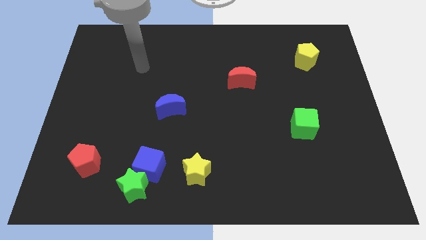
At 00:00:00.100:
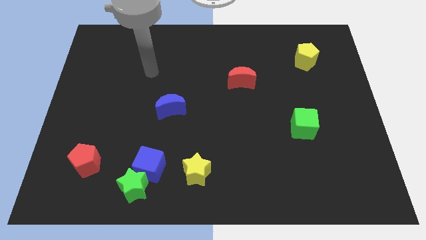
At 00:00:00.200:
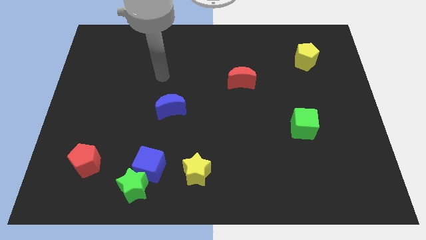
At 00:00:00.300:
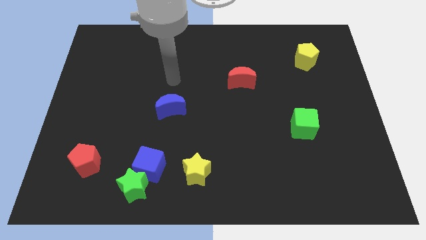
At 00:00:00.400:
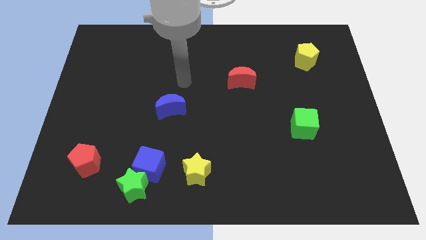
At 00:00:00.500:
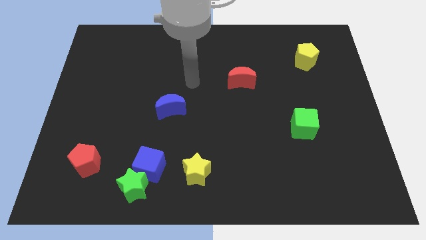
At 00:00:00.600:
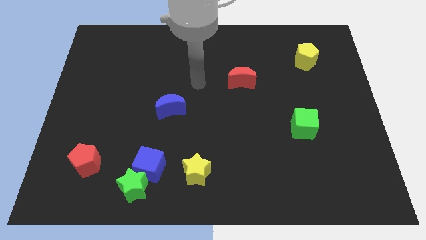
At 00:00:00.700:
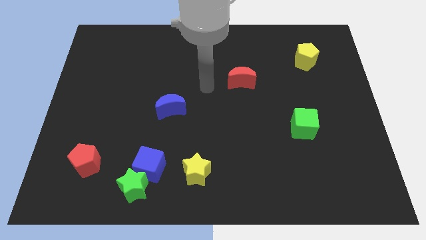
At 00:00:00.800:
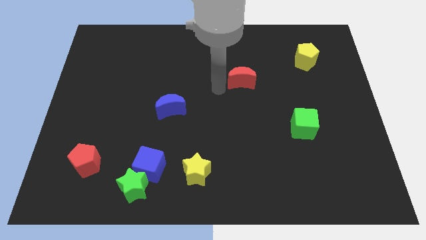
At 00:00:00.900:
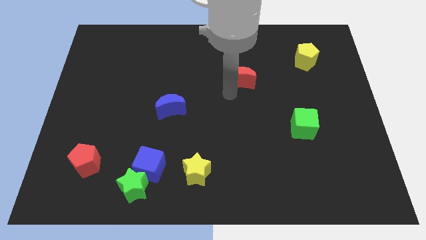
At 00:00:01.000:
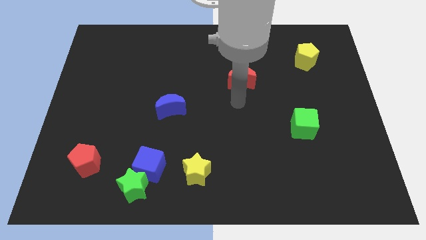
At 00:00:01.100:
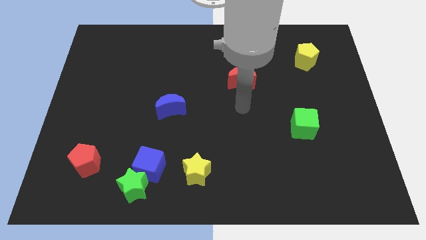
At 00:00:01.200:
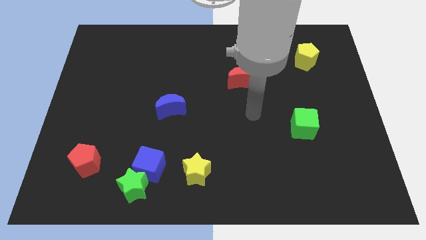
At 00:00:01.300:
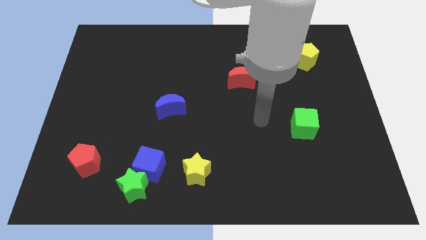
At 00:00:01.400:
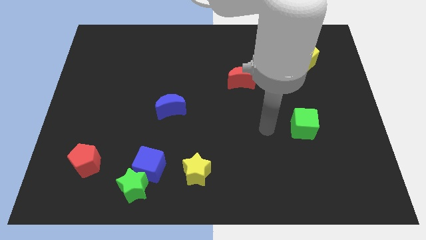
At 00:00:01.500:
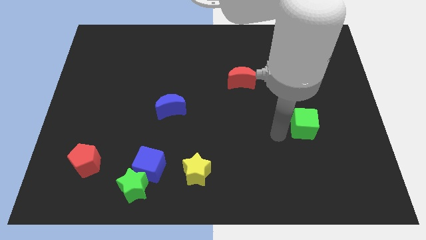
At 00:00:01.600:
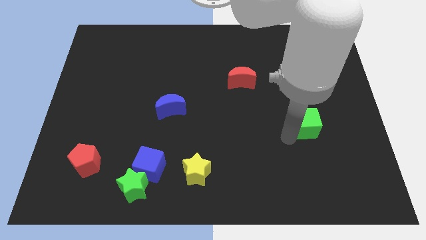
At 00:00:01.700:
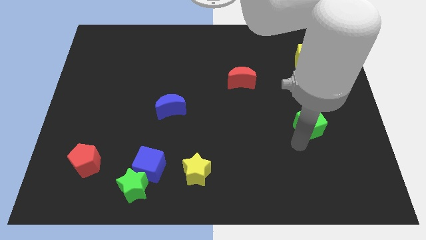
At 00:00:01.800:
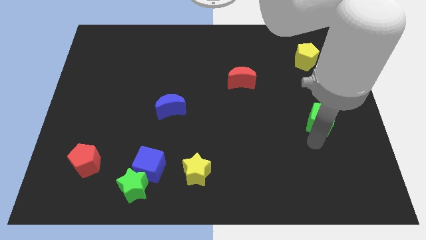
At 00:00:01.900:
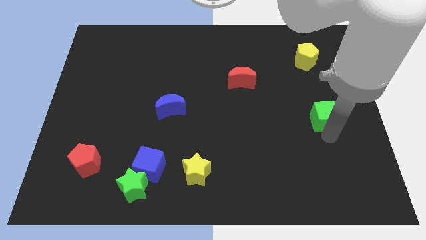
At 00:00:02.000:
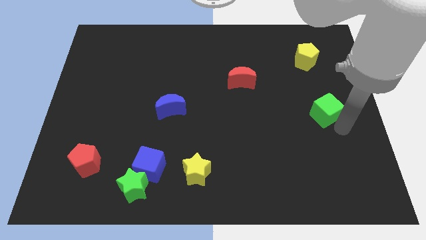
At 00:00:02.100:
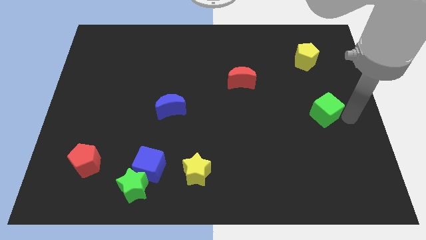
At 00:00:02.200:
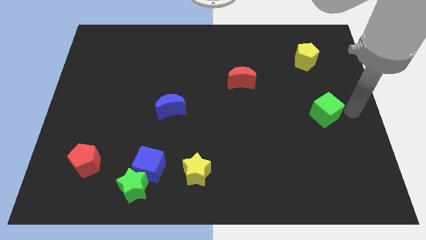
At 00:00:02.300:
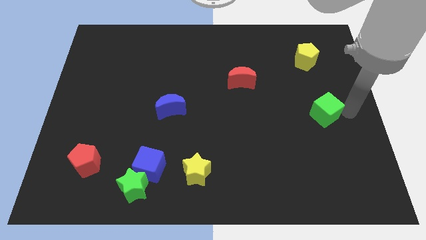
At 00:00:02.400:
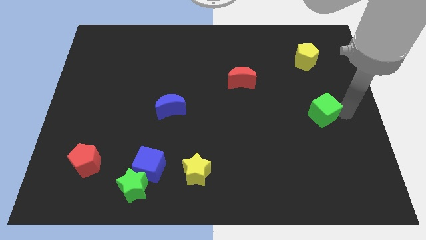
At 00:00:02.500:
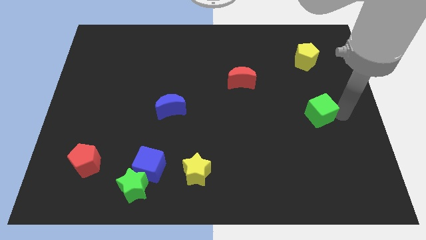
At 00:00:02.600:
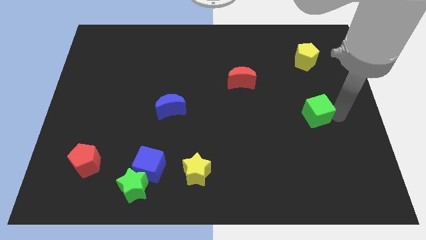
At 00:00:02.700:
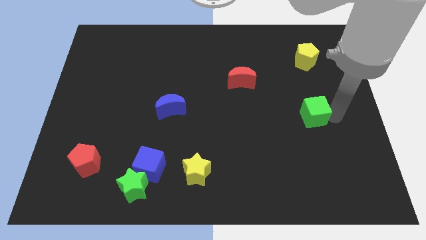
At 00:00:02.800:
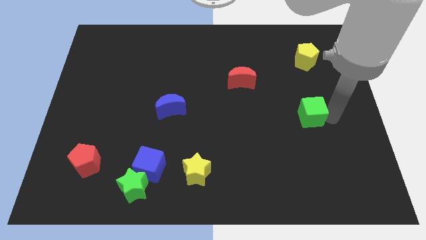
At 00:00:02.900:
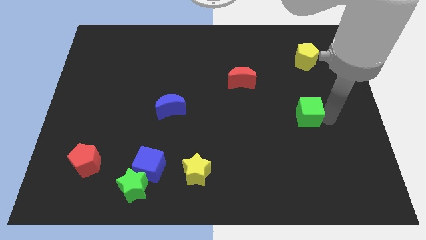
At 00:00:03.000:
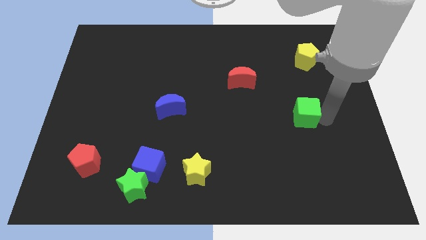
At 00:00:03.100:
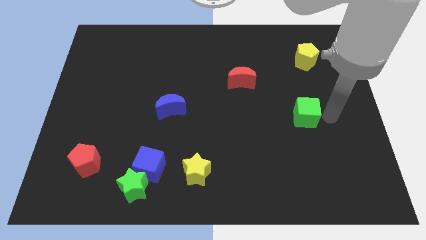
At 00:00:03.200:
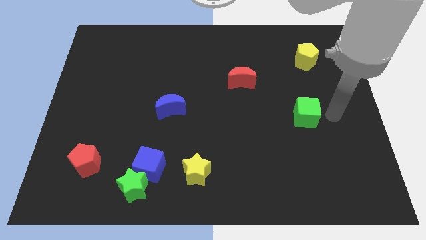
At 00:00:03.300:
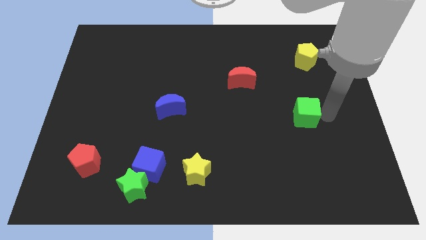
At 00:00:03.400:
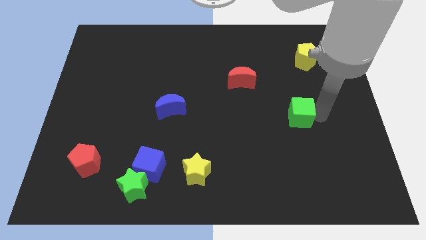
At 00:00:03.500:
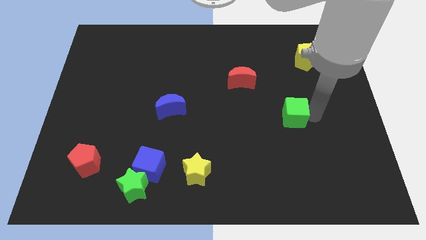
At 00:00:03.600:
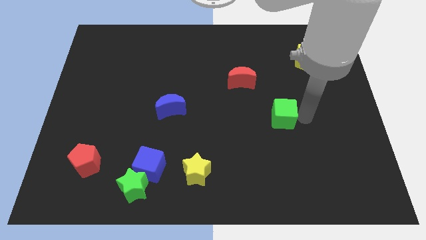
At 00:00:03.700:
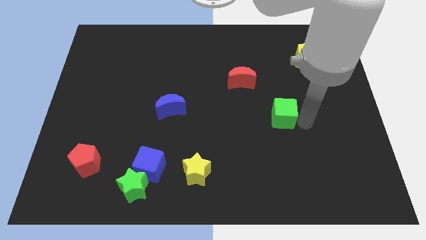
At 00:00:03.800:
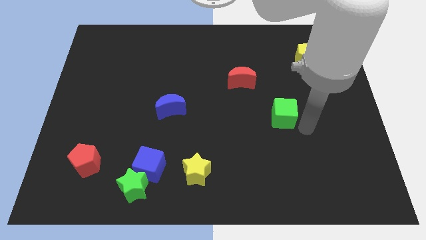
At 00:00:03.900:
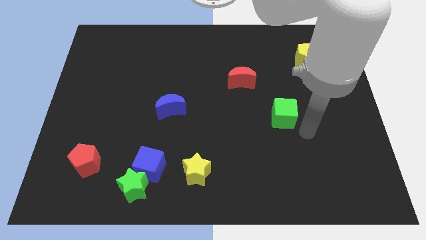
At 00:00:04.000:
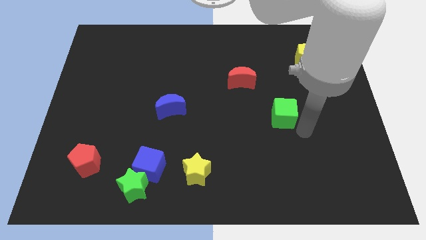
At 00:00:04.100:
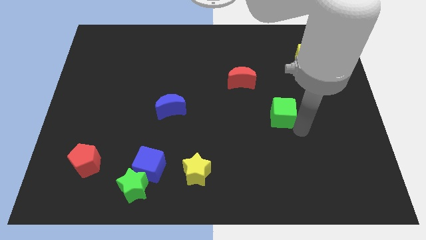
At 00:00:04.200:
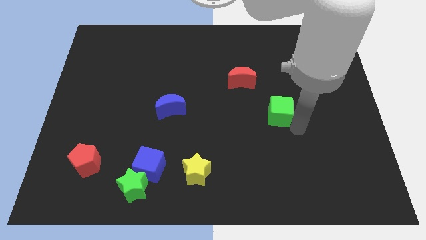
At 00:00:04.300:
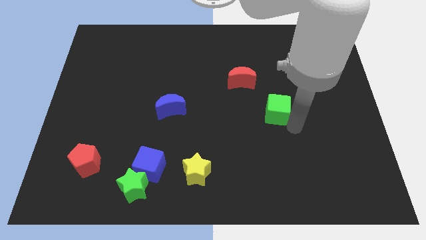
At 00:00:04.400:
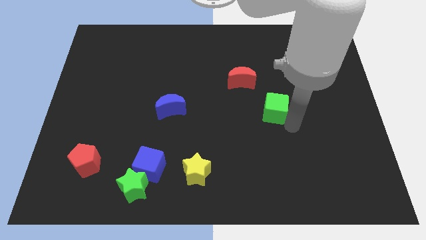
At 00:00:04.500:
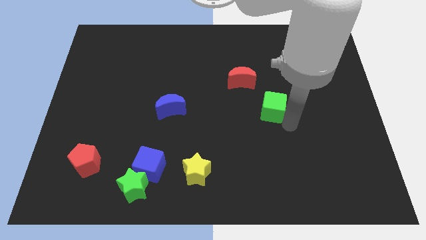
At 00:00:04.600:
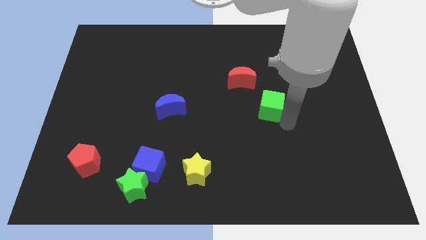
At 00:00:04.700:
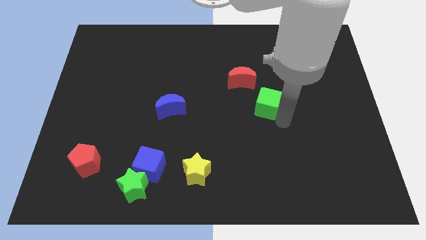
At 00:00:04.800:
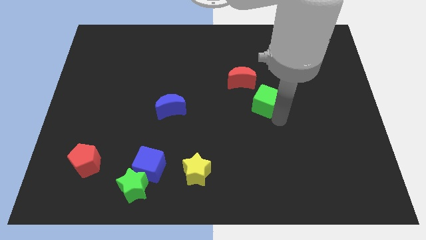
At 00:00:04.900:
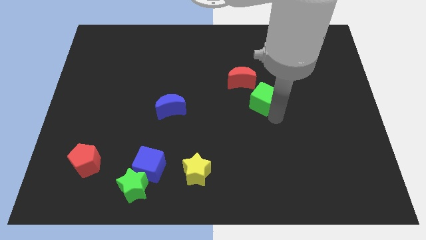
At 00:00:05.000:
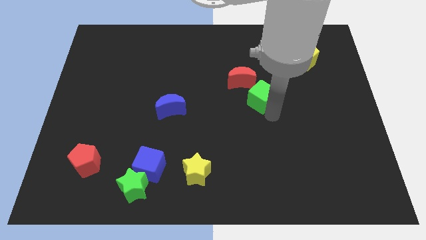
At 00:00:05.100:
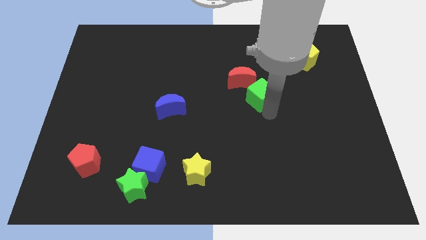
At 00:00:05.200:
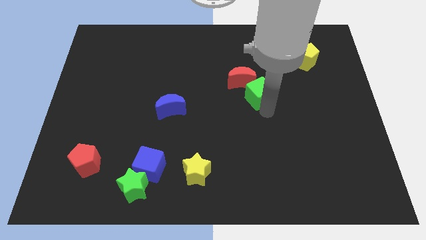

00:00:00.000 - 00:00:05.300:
move the green cube towards the red moon

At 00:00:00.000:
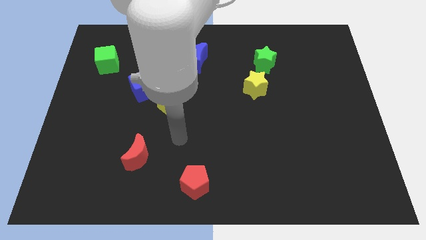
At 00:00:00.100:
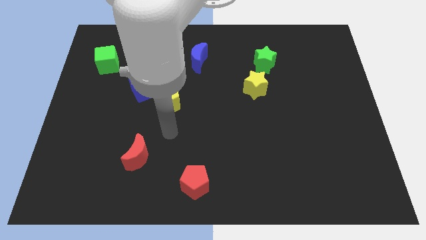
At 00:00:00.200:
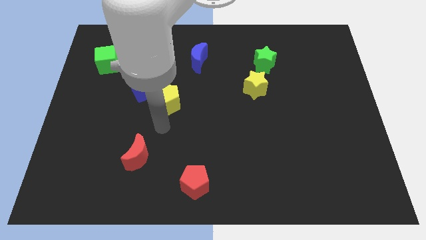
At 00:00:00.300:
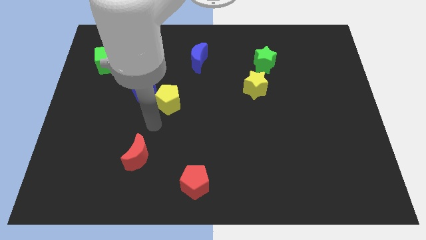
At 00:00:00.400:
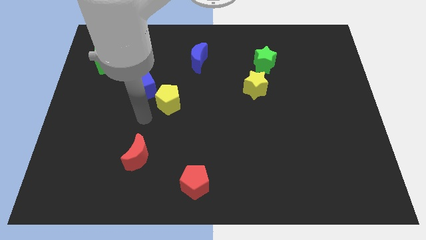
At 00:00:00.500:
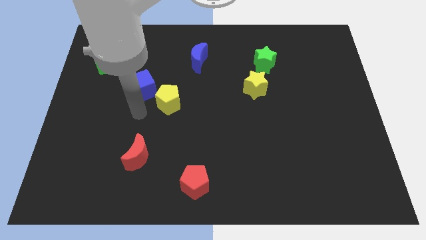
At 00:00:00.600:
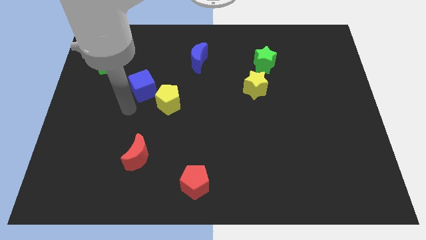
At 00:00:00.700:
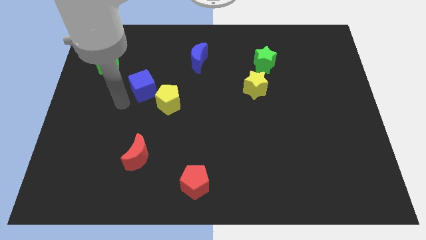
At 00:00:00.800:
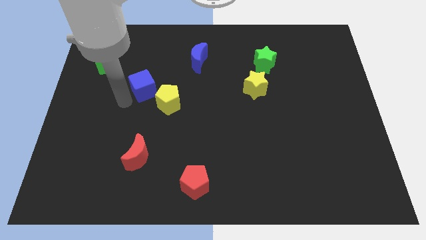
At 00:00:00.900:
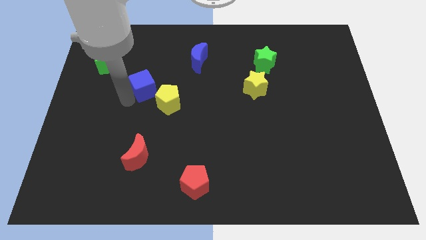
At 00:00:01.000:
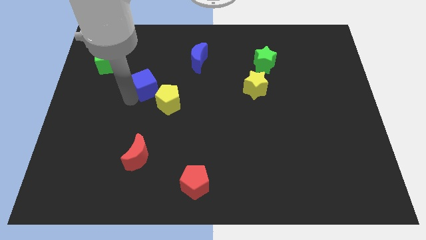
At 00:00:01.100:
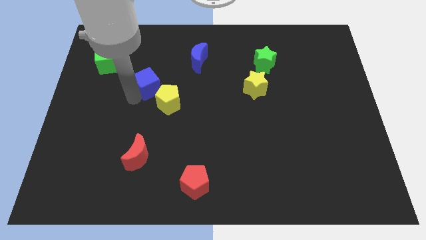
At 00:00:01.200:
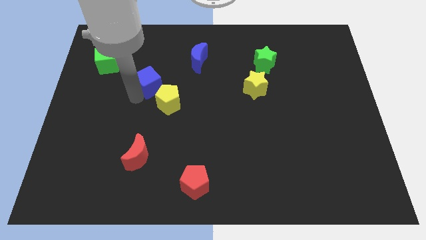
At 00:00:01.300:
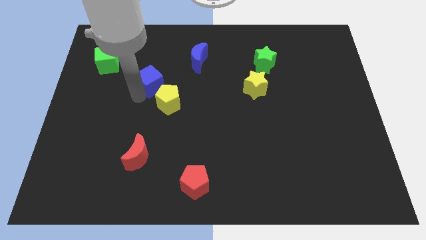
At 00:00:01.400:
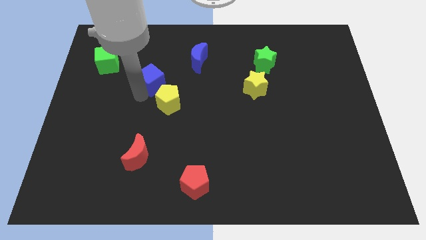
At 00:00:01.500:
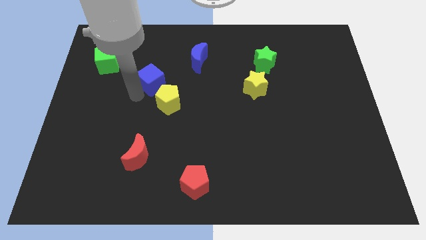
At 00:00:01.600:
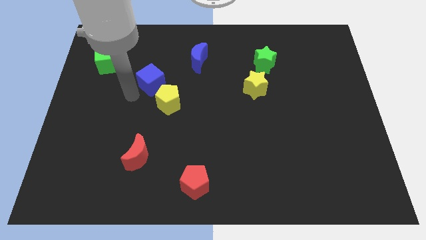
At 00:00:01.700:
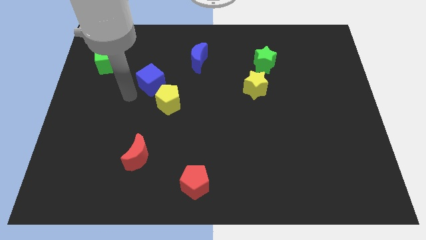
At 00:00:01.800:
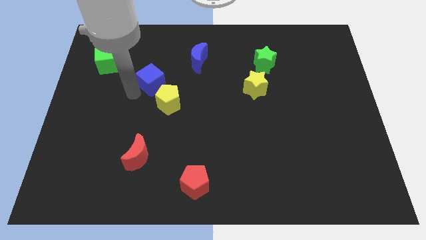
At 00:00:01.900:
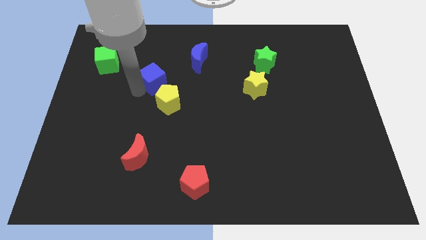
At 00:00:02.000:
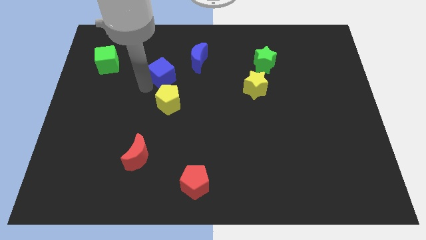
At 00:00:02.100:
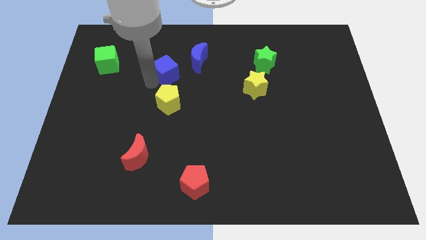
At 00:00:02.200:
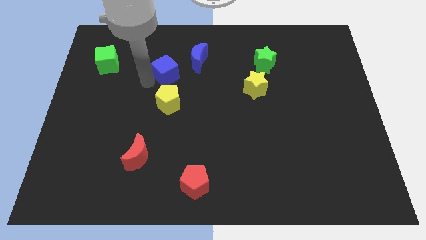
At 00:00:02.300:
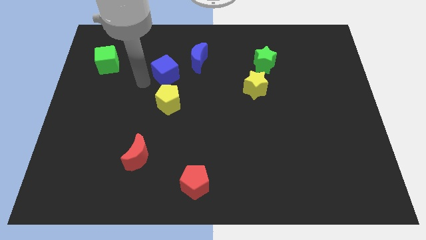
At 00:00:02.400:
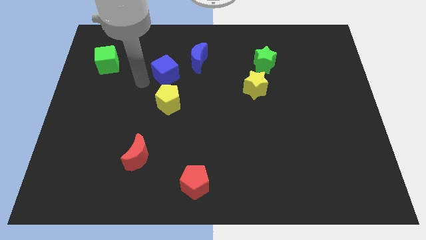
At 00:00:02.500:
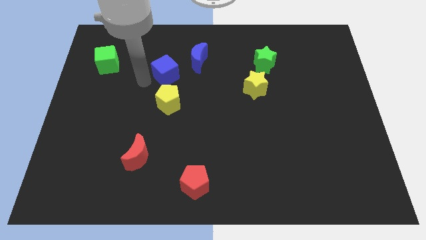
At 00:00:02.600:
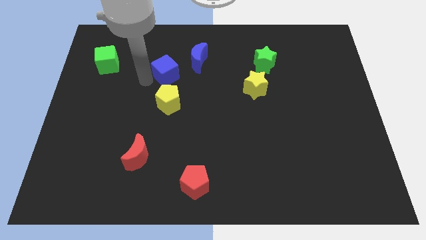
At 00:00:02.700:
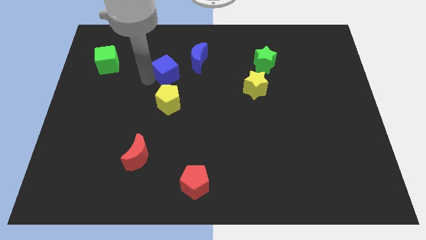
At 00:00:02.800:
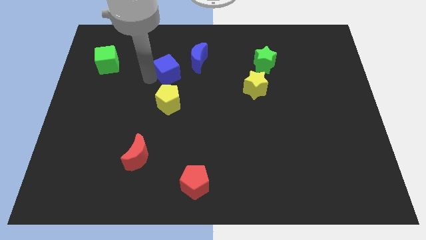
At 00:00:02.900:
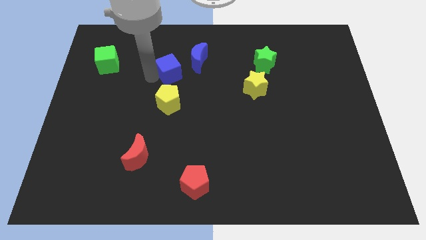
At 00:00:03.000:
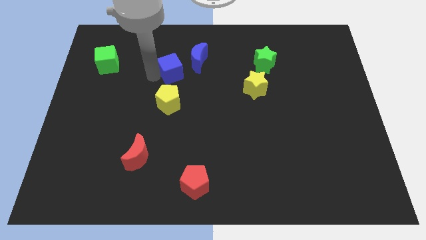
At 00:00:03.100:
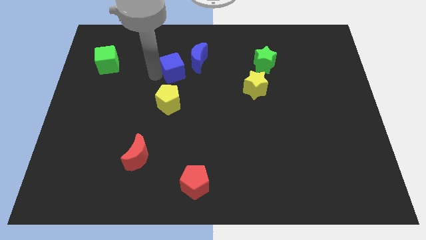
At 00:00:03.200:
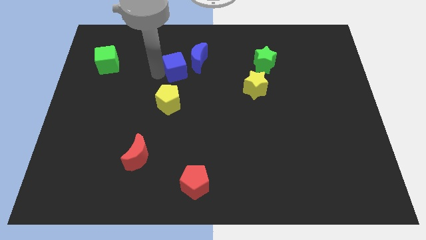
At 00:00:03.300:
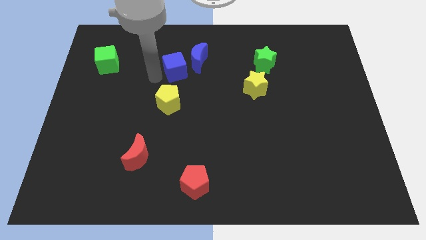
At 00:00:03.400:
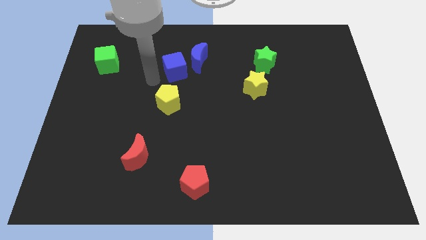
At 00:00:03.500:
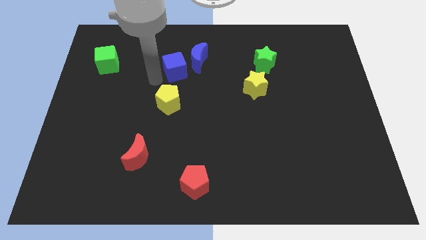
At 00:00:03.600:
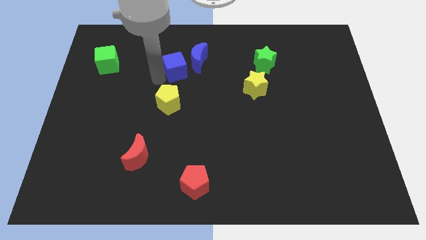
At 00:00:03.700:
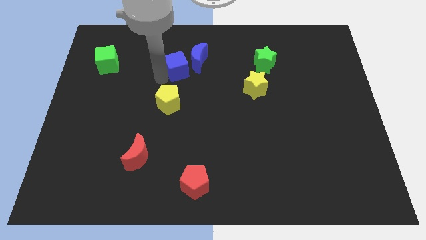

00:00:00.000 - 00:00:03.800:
put the blue cube towards the blue moon
